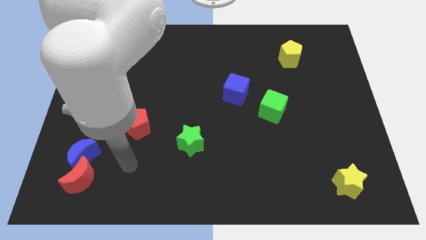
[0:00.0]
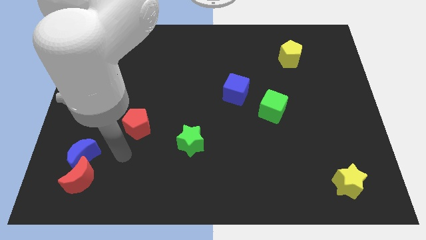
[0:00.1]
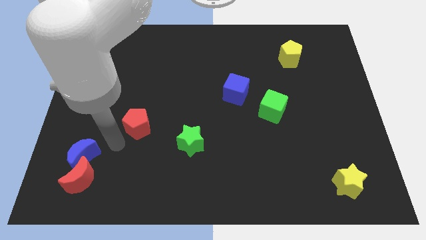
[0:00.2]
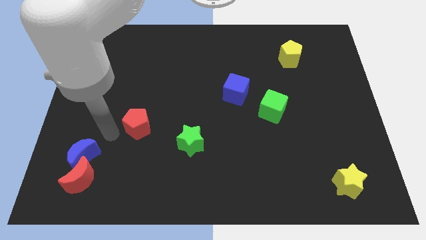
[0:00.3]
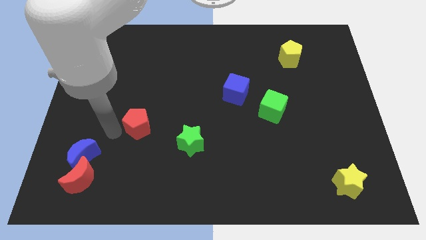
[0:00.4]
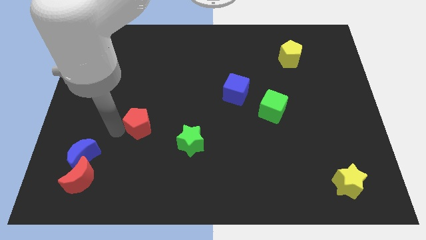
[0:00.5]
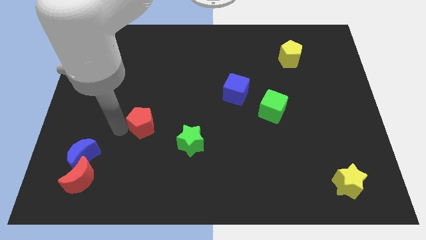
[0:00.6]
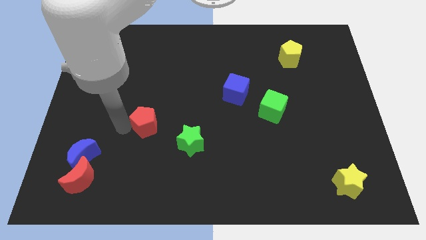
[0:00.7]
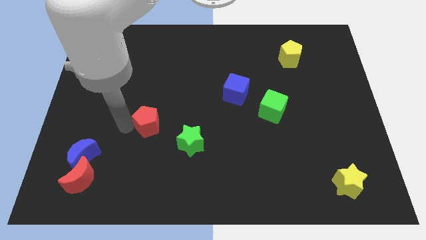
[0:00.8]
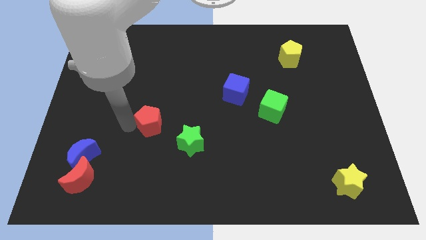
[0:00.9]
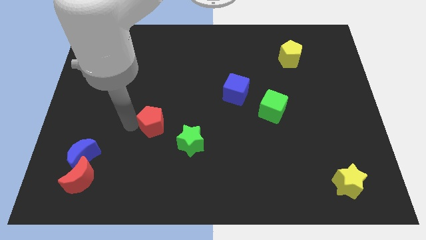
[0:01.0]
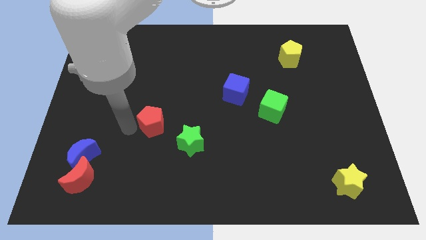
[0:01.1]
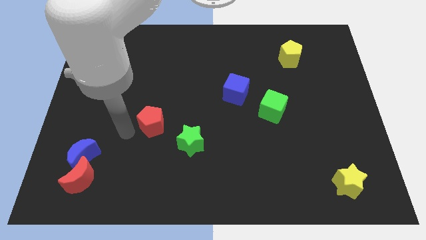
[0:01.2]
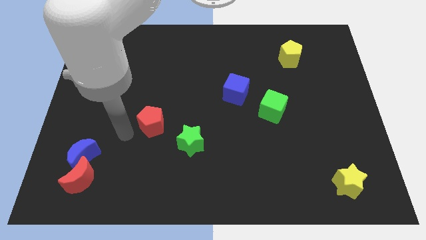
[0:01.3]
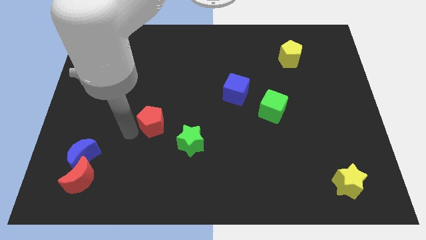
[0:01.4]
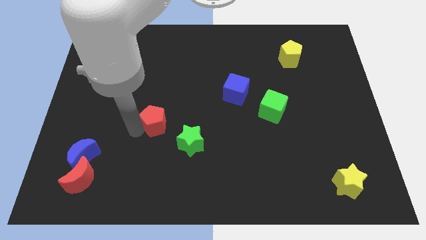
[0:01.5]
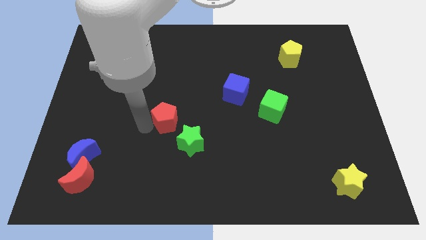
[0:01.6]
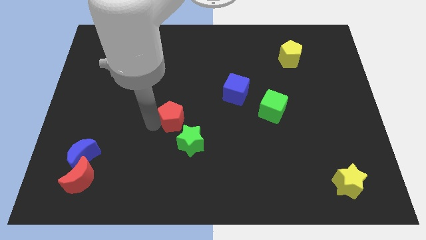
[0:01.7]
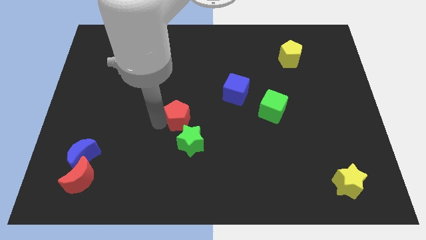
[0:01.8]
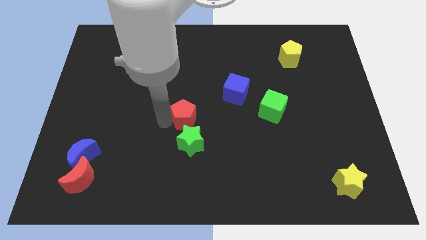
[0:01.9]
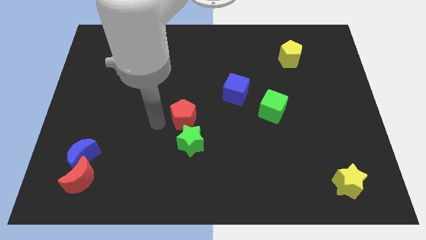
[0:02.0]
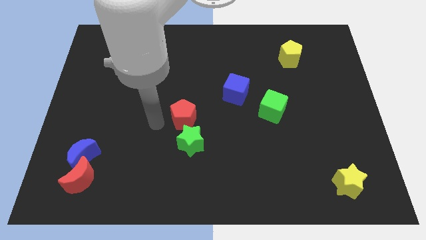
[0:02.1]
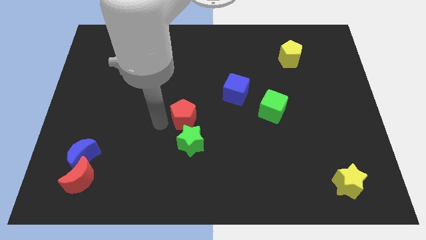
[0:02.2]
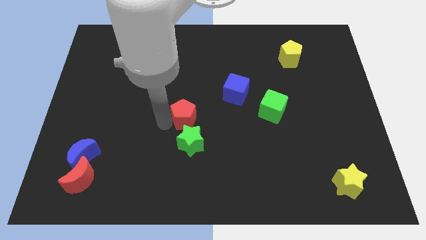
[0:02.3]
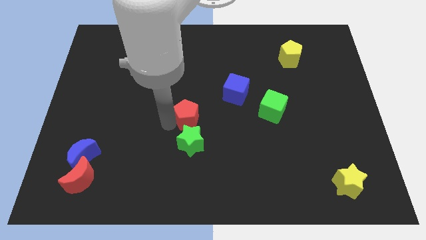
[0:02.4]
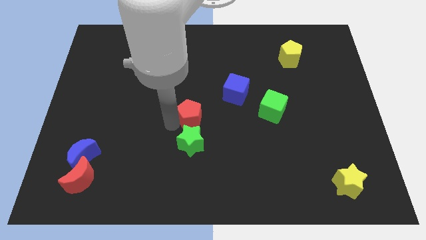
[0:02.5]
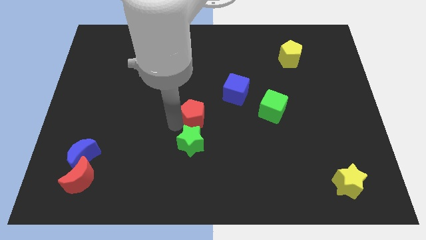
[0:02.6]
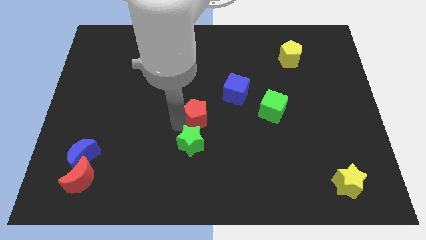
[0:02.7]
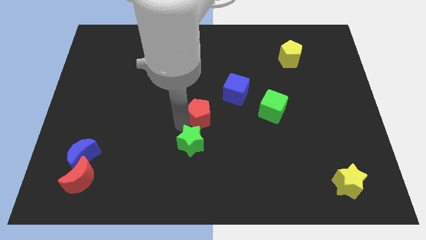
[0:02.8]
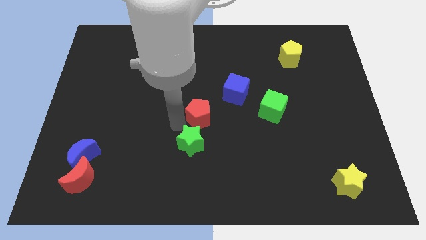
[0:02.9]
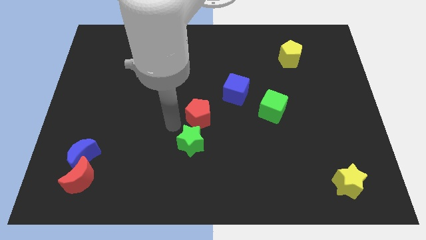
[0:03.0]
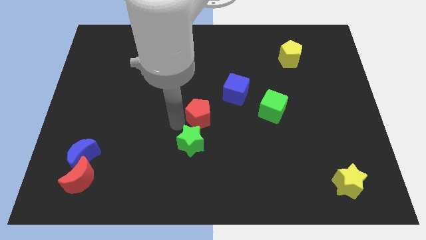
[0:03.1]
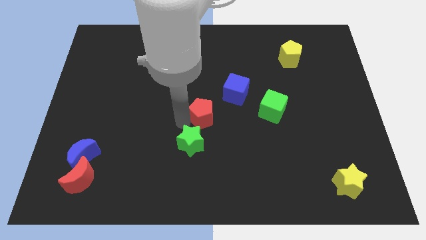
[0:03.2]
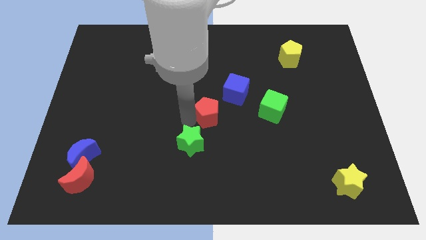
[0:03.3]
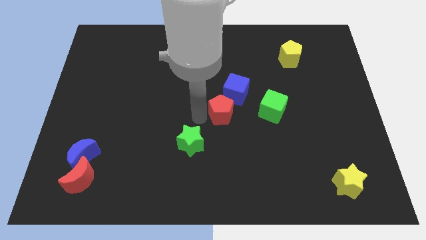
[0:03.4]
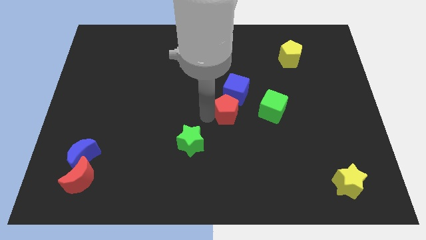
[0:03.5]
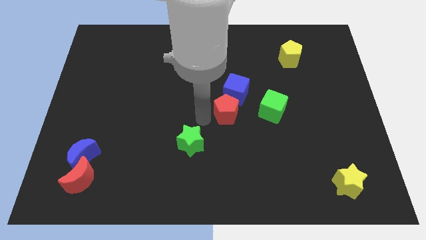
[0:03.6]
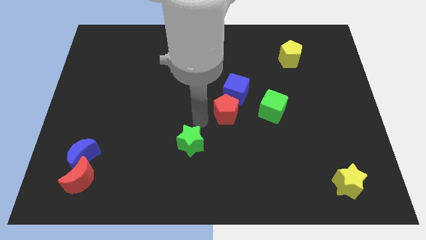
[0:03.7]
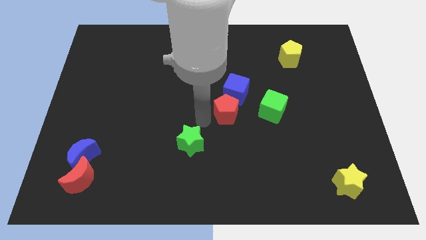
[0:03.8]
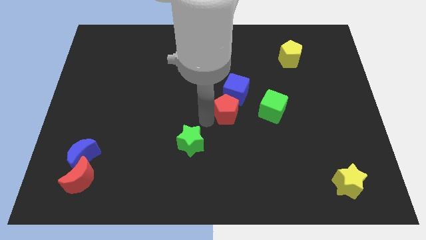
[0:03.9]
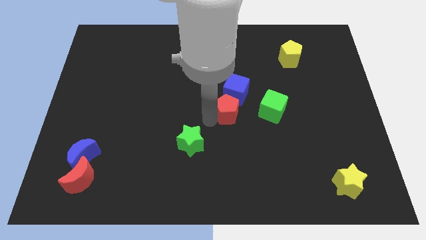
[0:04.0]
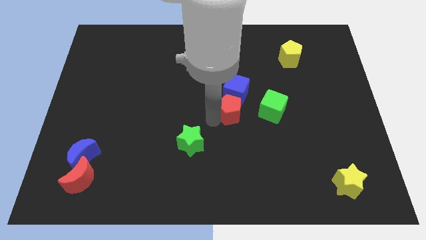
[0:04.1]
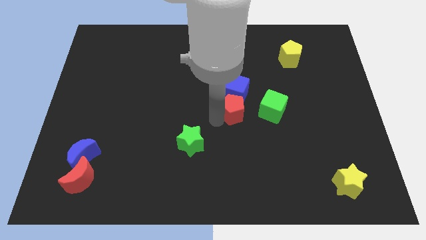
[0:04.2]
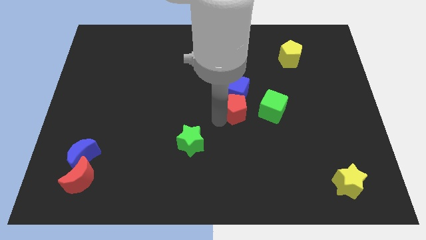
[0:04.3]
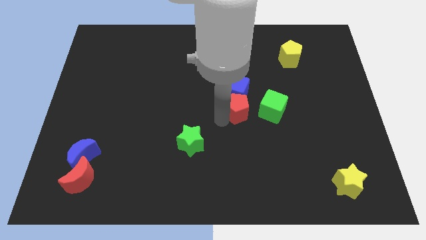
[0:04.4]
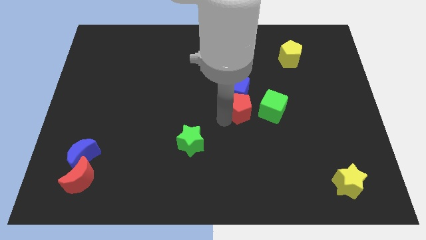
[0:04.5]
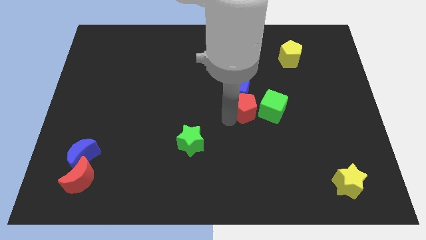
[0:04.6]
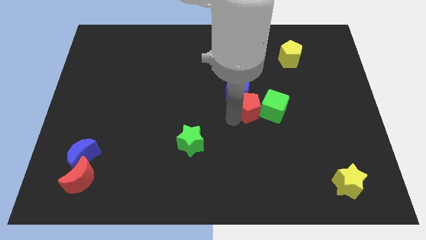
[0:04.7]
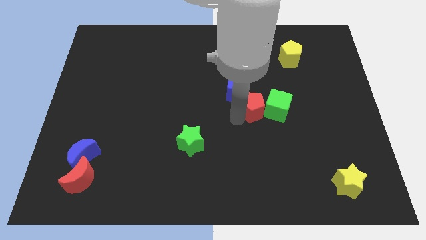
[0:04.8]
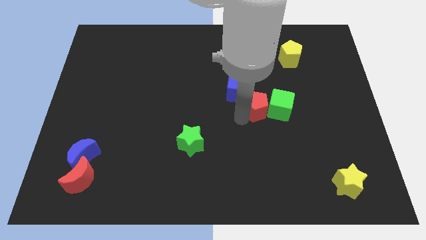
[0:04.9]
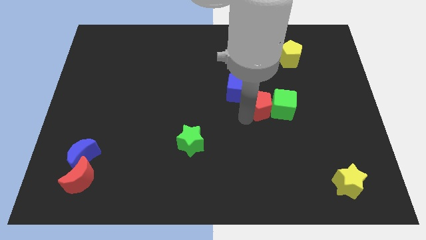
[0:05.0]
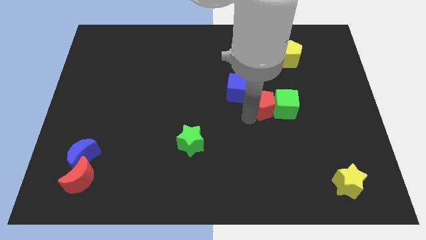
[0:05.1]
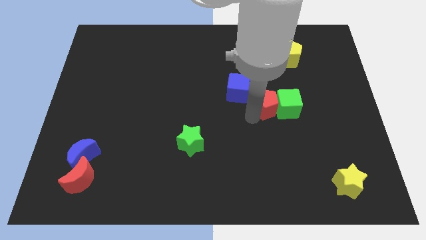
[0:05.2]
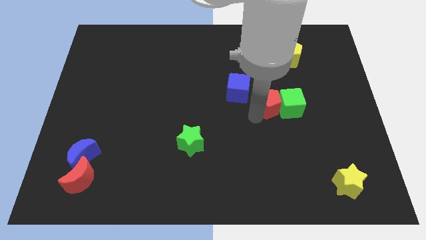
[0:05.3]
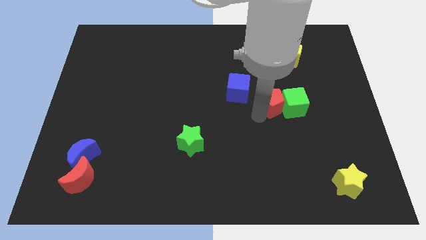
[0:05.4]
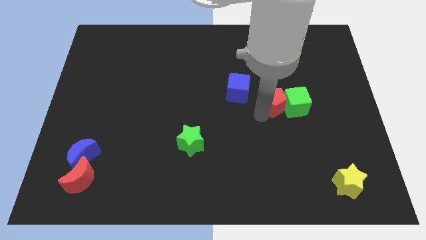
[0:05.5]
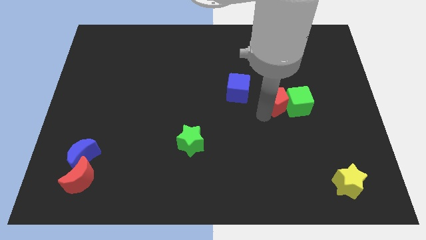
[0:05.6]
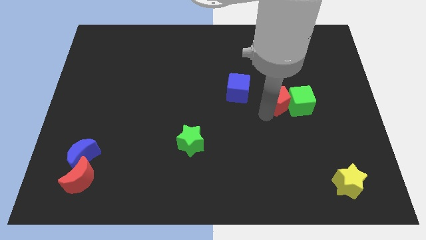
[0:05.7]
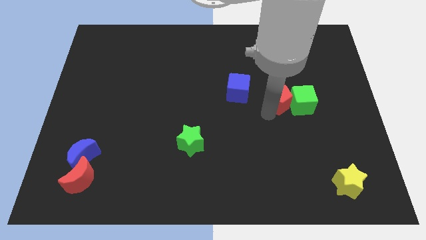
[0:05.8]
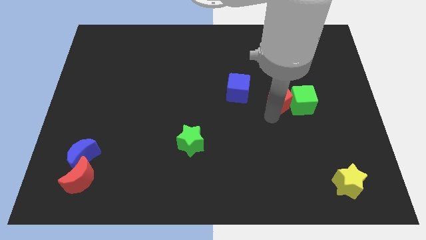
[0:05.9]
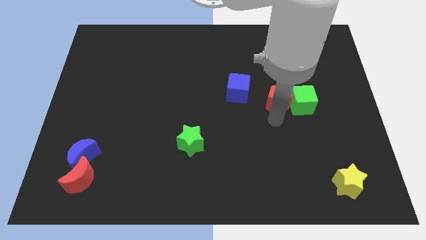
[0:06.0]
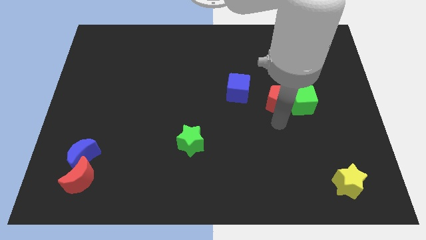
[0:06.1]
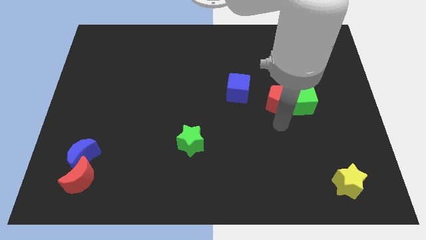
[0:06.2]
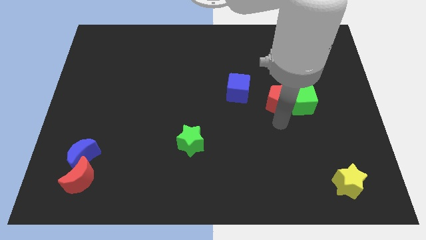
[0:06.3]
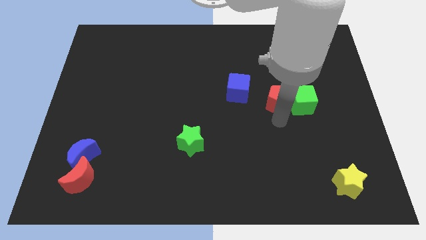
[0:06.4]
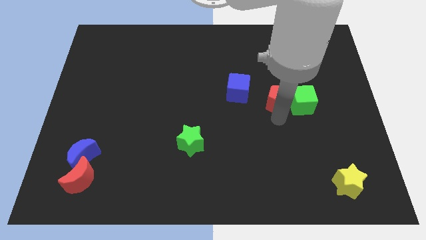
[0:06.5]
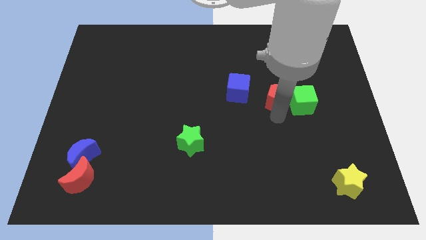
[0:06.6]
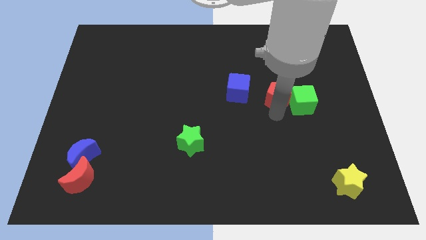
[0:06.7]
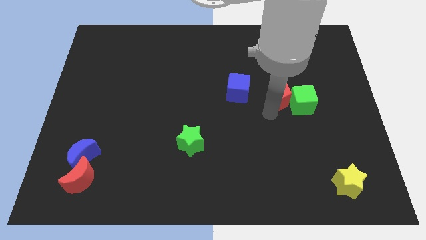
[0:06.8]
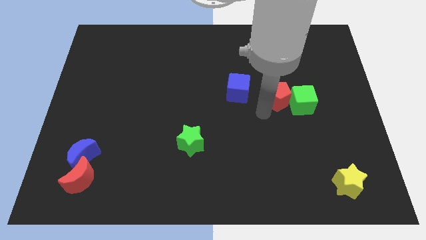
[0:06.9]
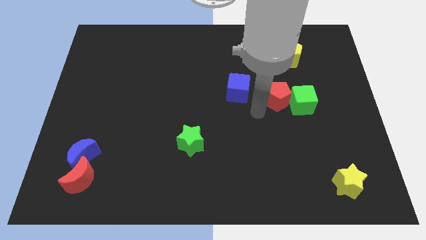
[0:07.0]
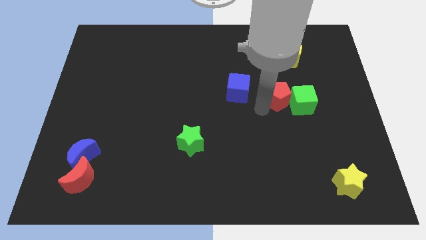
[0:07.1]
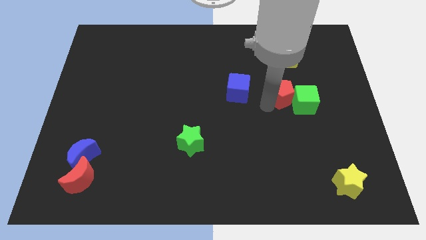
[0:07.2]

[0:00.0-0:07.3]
move the red pentagon below the yellow pentagon
